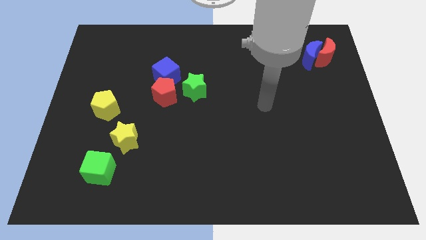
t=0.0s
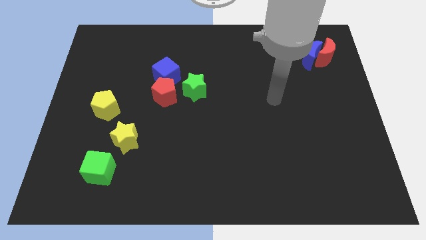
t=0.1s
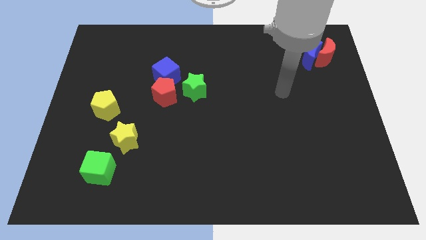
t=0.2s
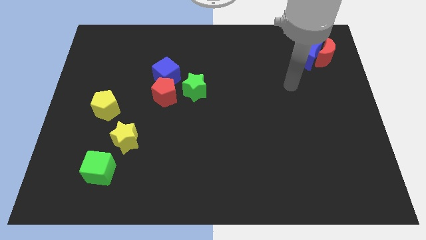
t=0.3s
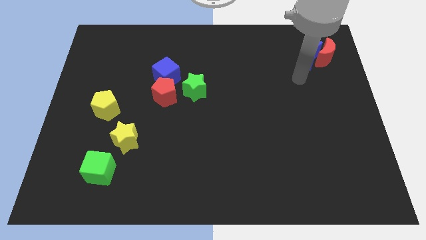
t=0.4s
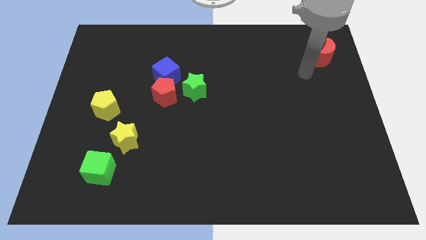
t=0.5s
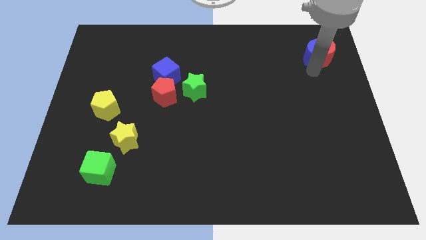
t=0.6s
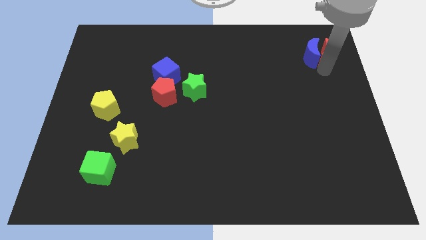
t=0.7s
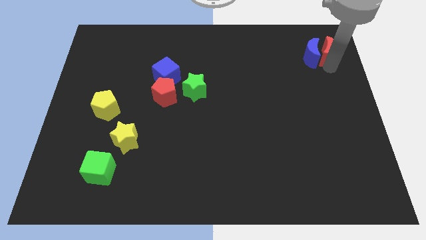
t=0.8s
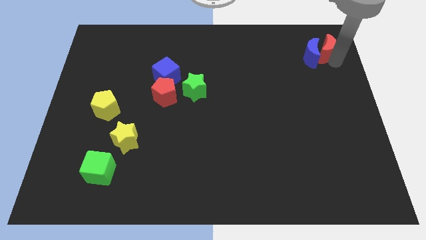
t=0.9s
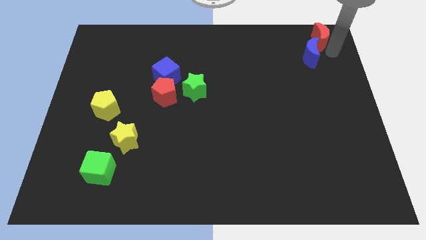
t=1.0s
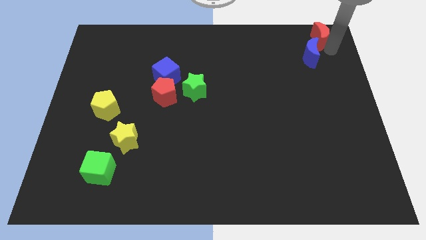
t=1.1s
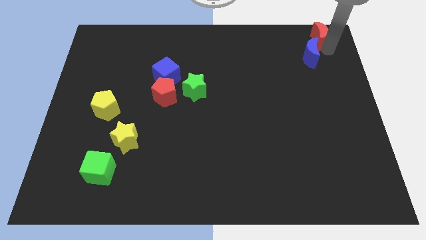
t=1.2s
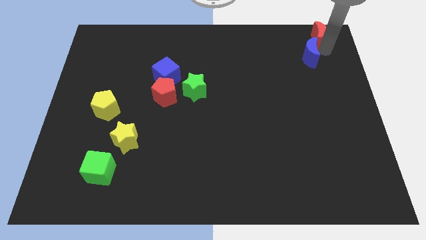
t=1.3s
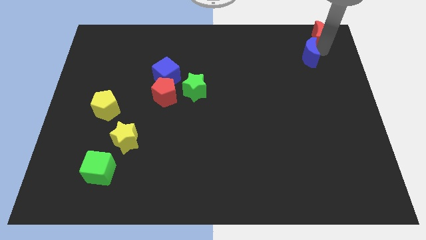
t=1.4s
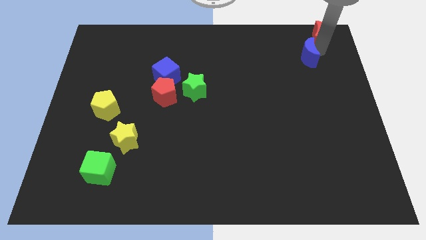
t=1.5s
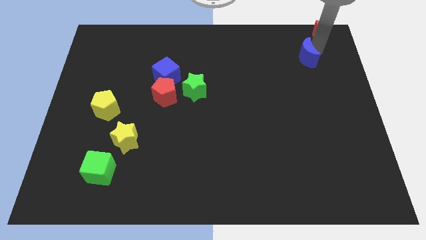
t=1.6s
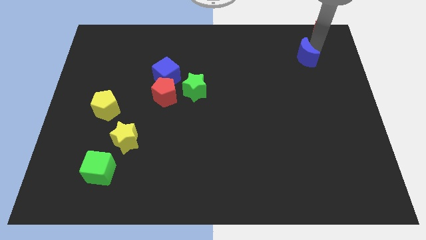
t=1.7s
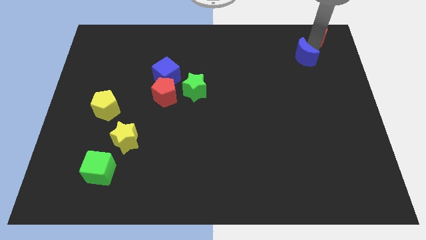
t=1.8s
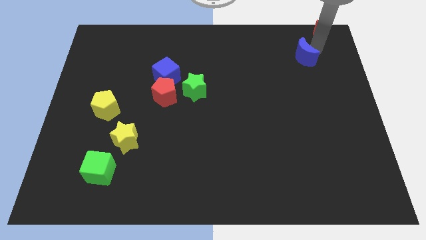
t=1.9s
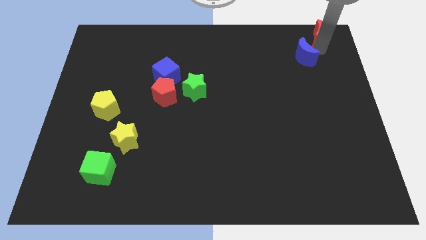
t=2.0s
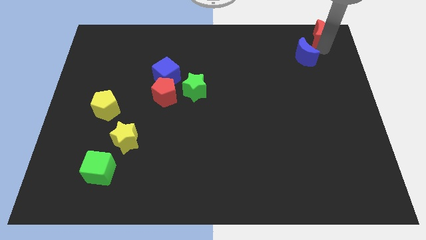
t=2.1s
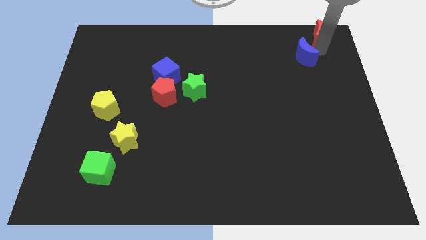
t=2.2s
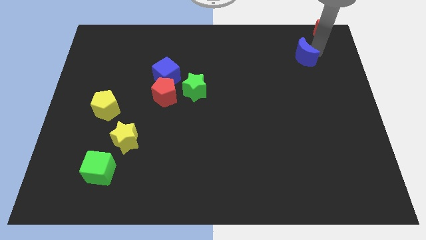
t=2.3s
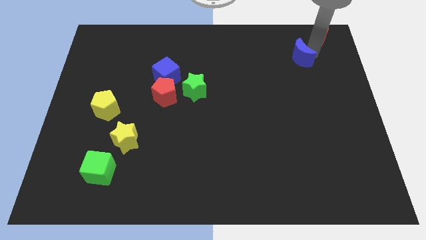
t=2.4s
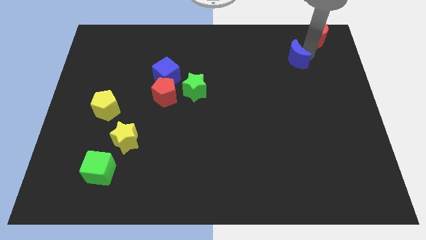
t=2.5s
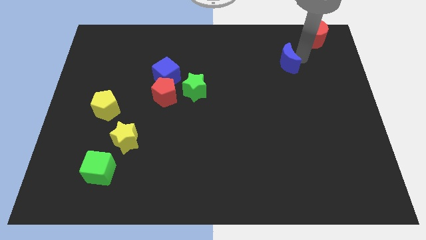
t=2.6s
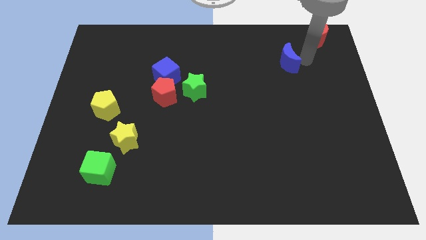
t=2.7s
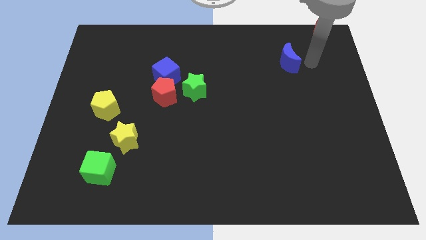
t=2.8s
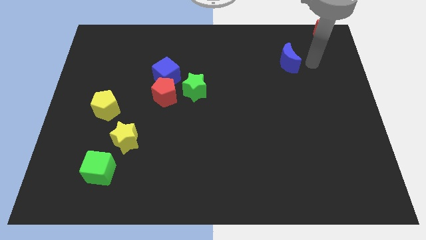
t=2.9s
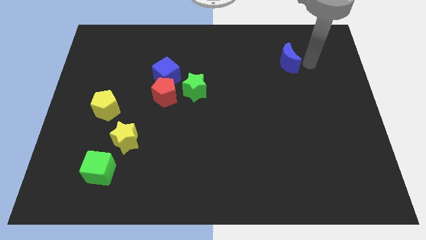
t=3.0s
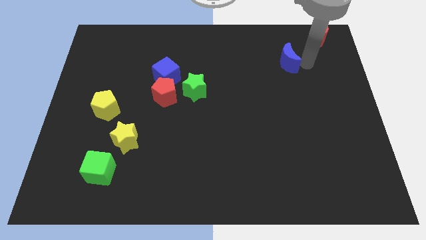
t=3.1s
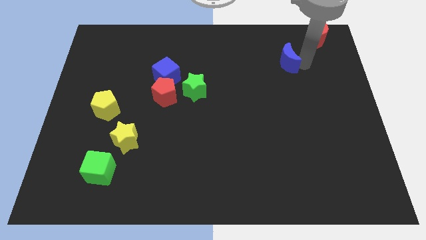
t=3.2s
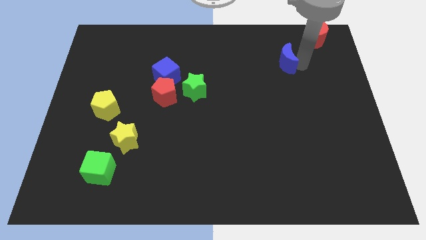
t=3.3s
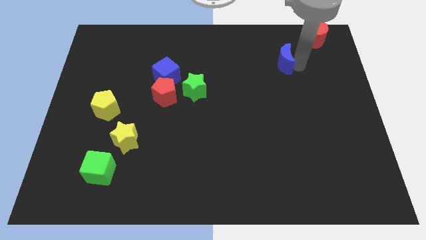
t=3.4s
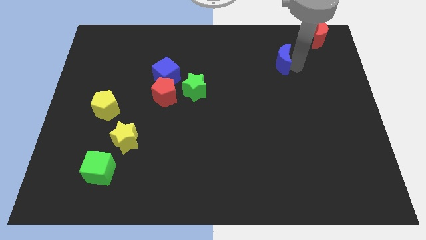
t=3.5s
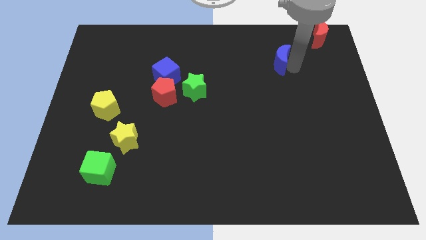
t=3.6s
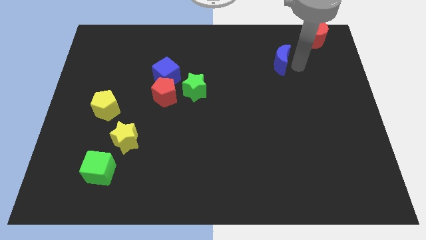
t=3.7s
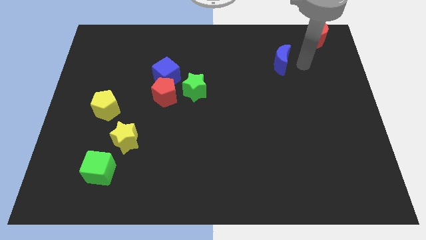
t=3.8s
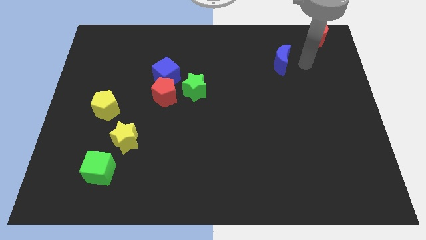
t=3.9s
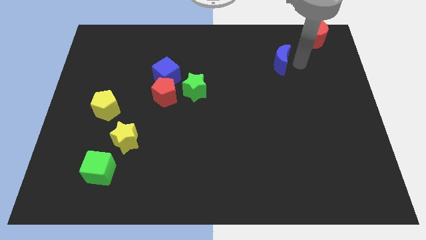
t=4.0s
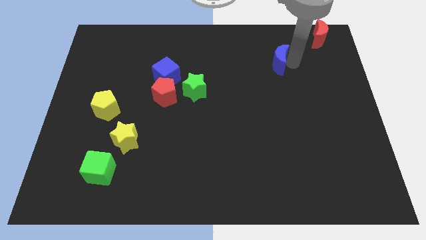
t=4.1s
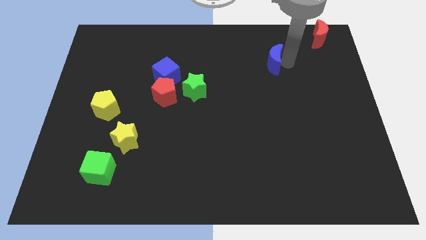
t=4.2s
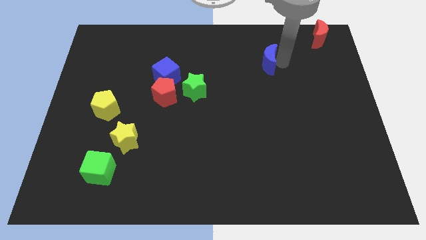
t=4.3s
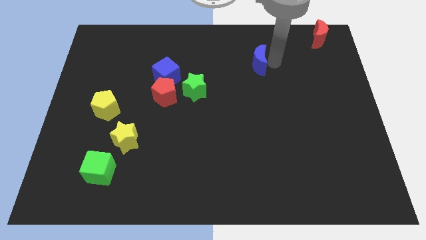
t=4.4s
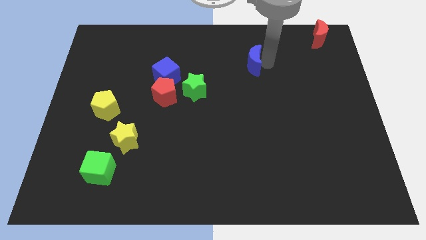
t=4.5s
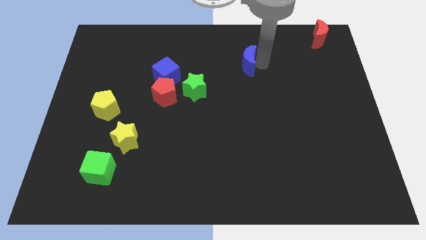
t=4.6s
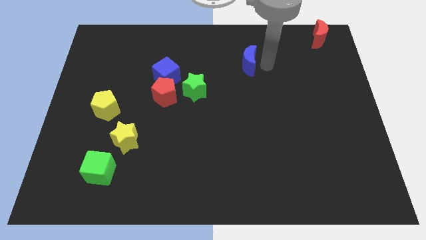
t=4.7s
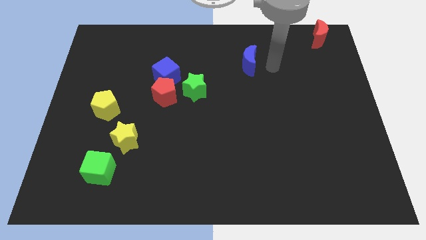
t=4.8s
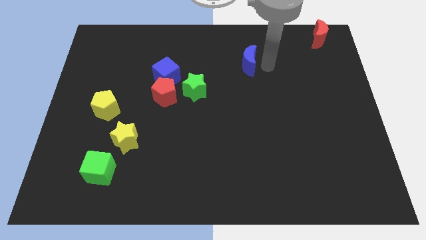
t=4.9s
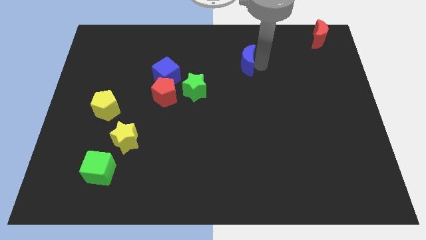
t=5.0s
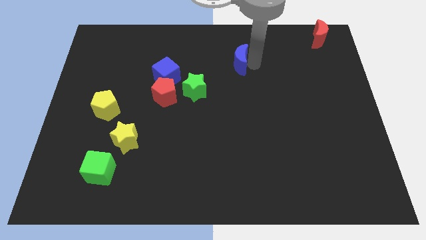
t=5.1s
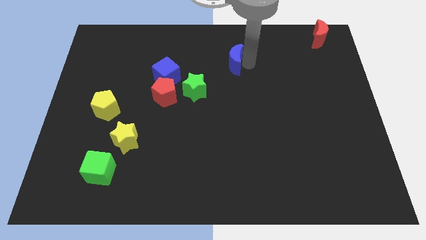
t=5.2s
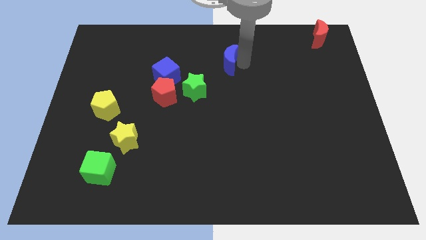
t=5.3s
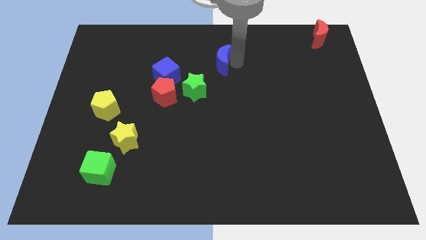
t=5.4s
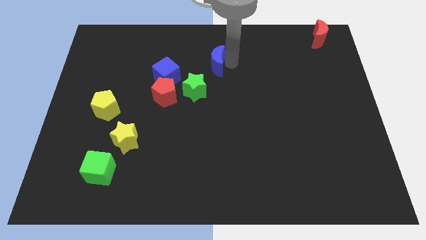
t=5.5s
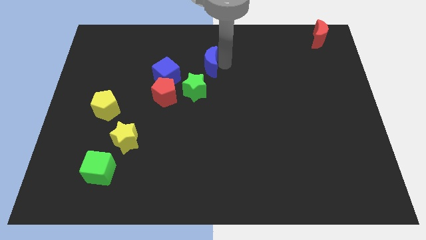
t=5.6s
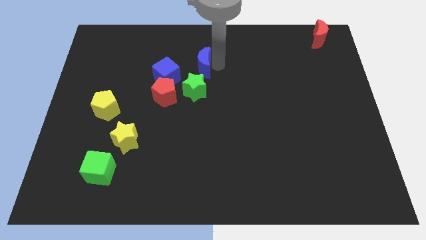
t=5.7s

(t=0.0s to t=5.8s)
slide the blue moon to the top right of the blue cube

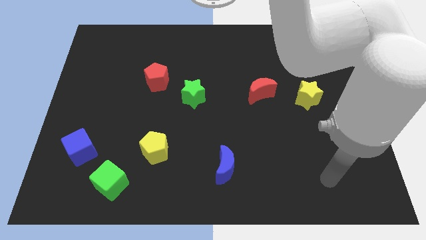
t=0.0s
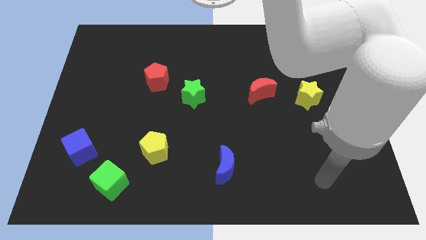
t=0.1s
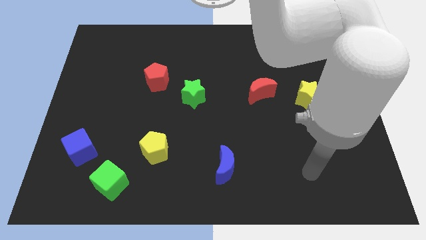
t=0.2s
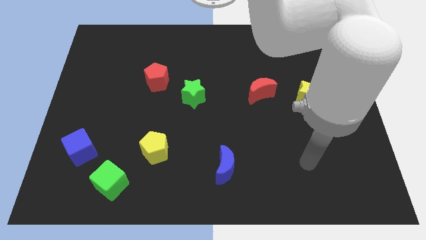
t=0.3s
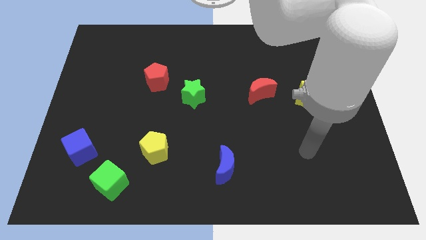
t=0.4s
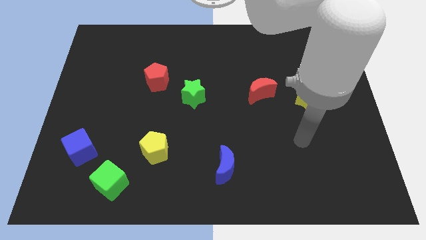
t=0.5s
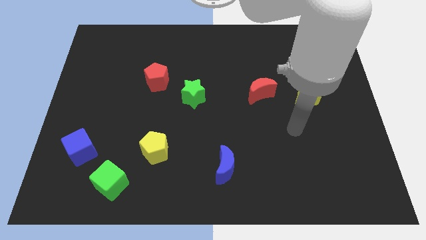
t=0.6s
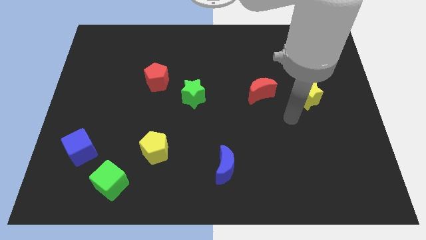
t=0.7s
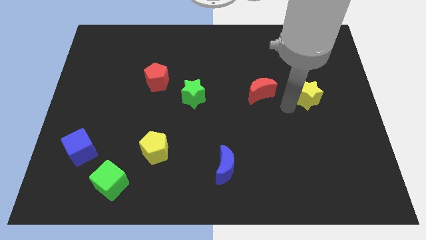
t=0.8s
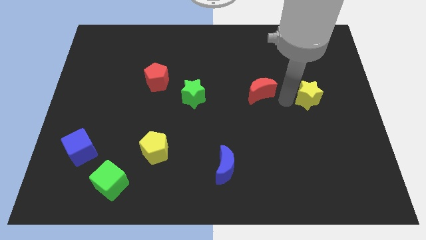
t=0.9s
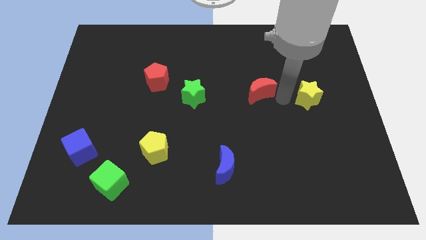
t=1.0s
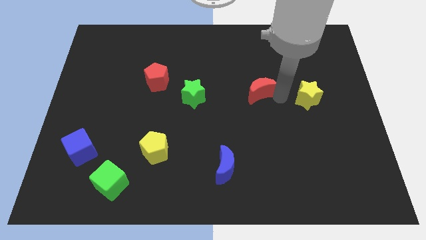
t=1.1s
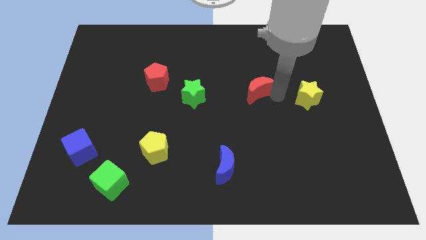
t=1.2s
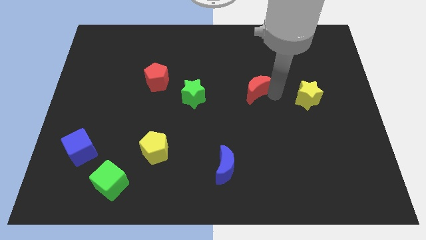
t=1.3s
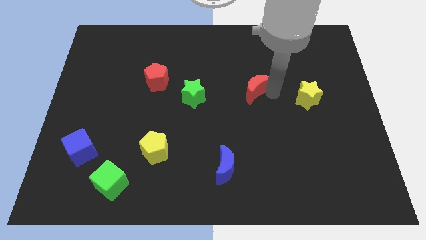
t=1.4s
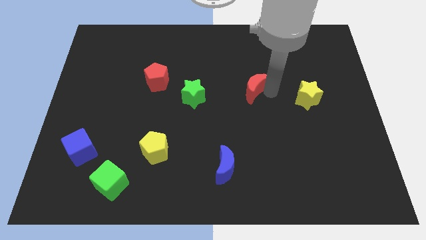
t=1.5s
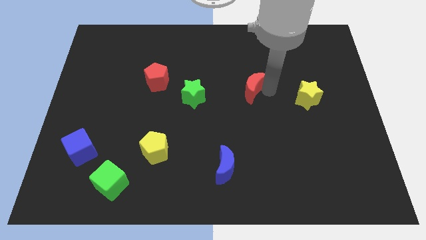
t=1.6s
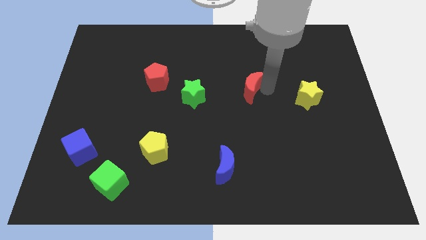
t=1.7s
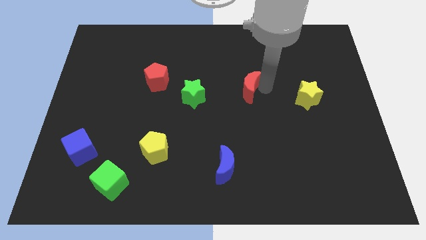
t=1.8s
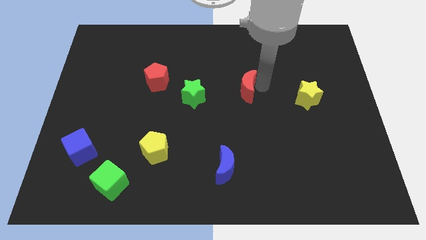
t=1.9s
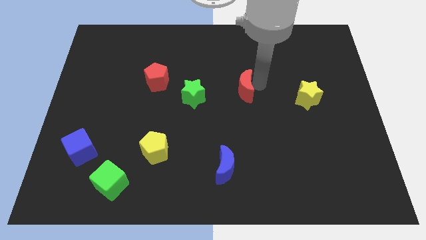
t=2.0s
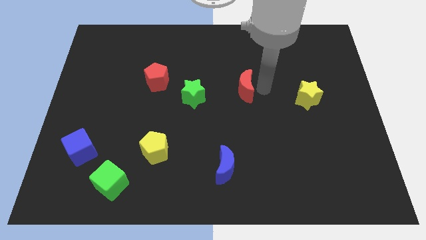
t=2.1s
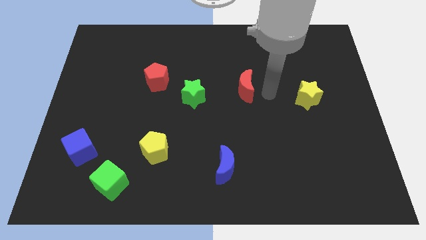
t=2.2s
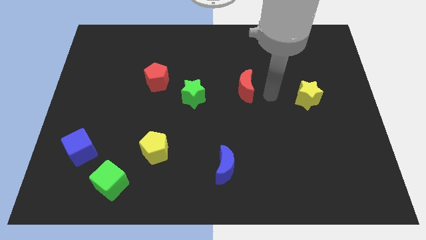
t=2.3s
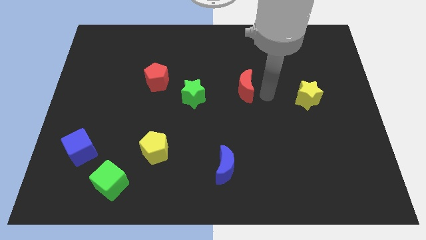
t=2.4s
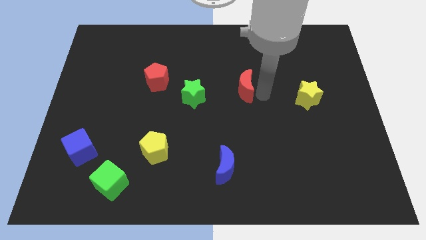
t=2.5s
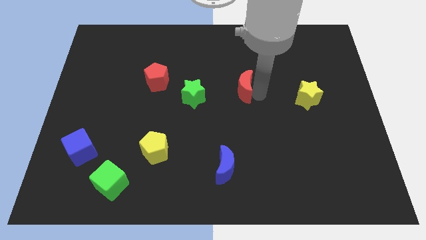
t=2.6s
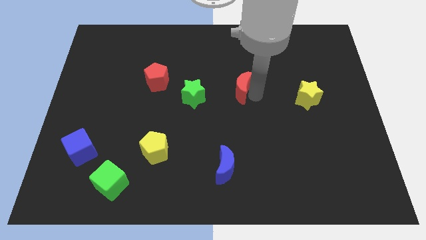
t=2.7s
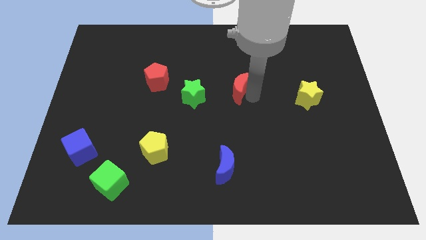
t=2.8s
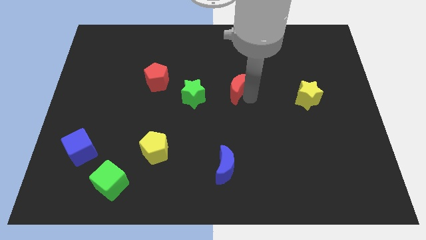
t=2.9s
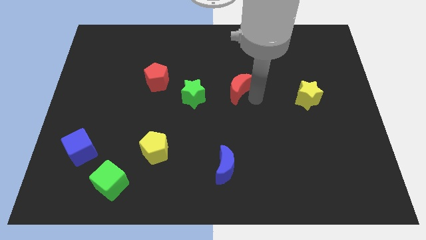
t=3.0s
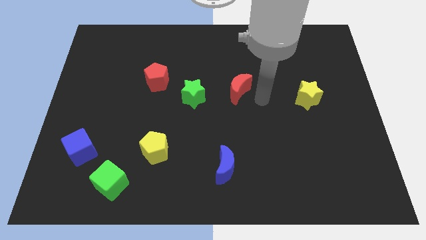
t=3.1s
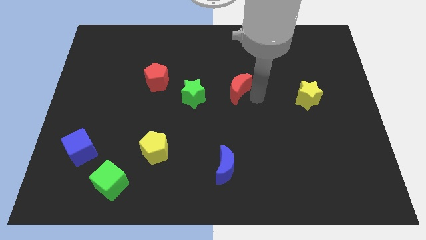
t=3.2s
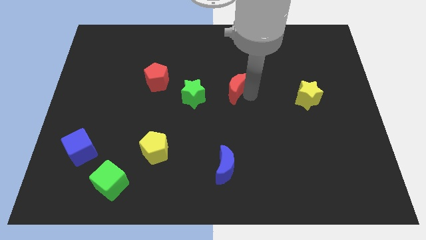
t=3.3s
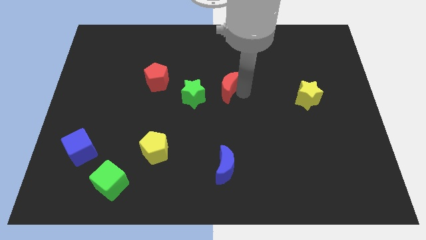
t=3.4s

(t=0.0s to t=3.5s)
move the red moon to the top right side of the green star
